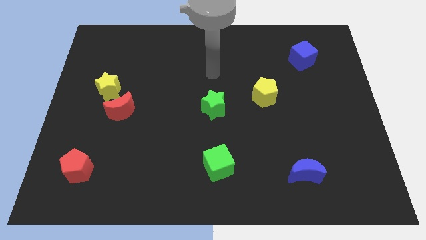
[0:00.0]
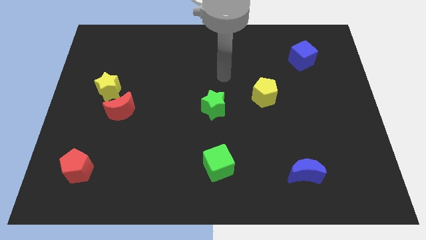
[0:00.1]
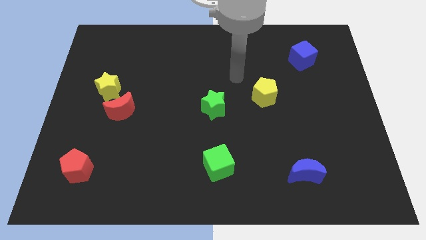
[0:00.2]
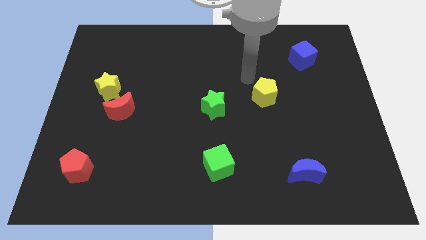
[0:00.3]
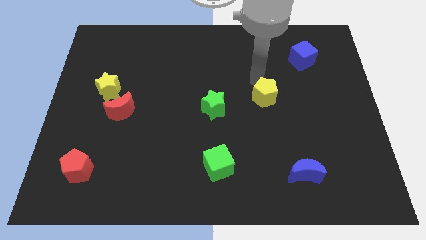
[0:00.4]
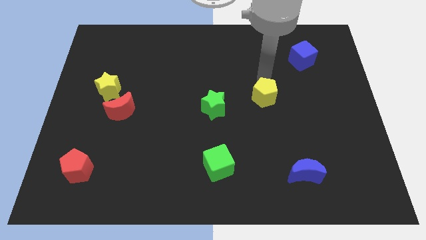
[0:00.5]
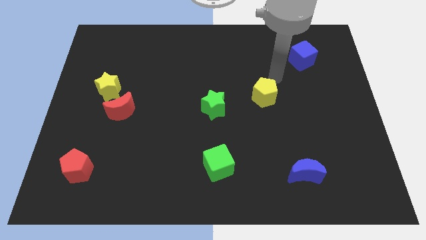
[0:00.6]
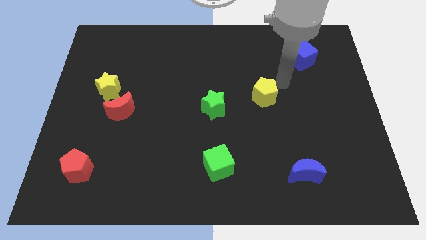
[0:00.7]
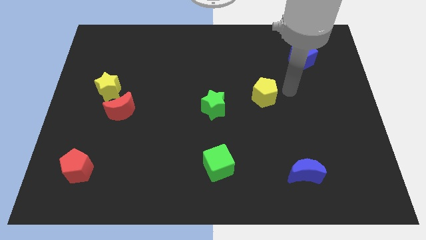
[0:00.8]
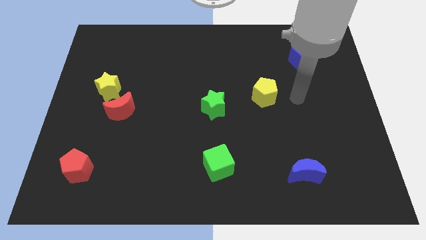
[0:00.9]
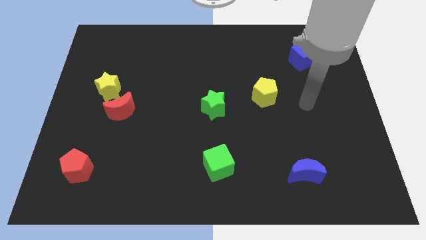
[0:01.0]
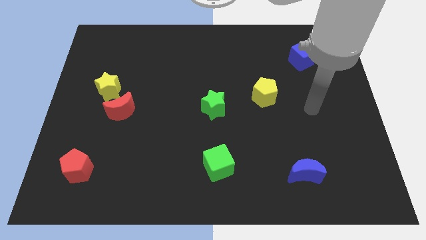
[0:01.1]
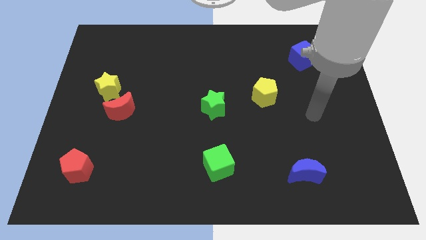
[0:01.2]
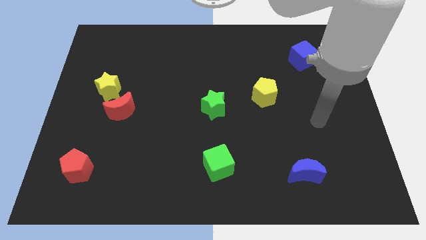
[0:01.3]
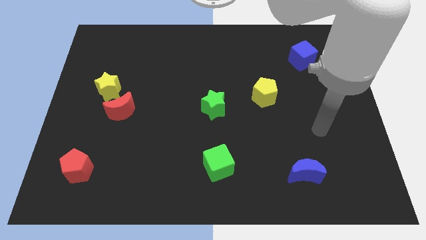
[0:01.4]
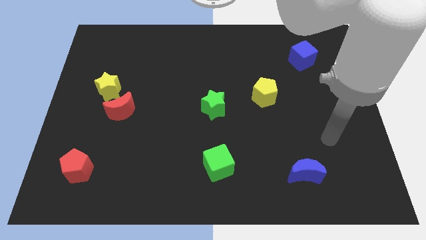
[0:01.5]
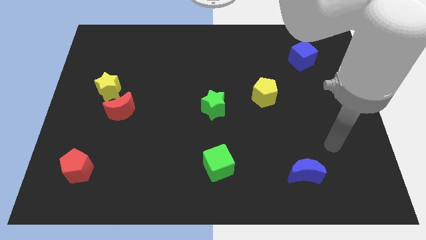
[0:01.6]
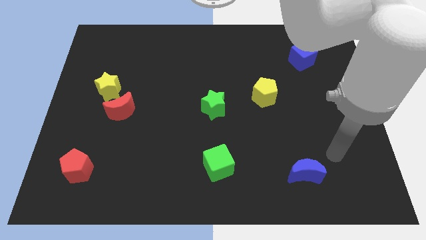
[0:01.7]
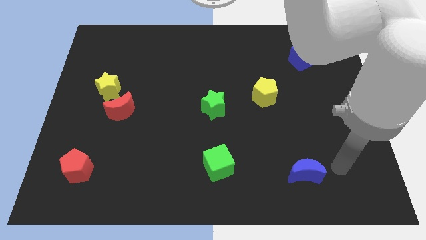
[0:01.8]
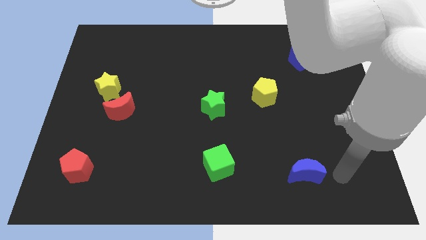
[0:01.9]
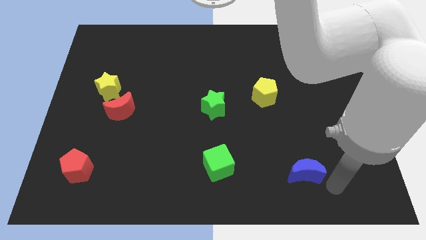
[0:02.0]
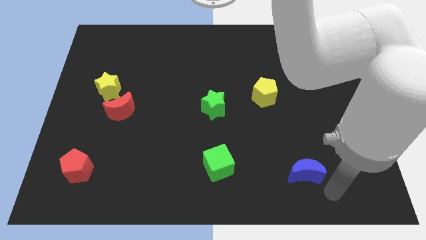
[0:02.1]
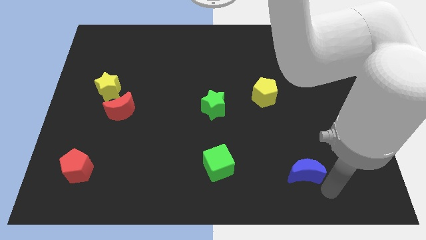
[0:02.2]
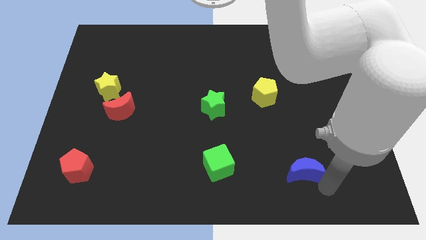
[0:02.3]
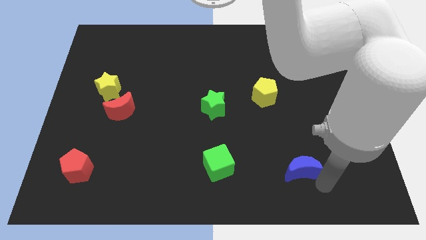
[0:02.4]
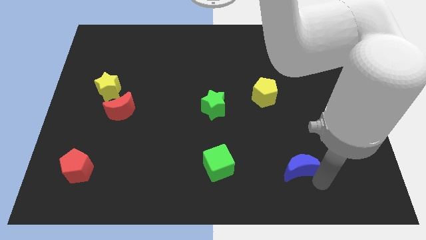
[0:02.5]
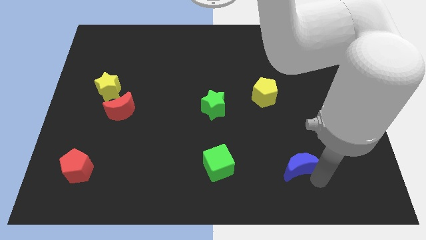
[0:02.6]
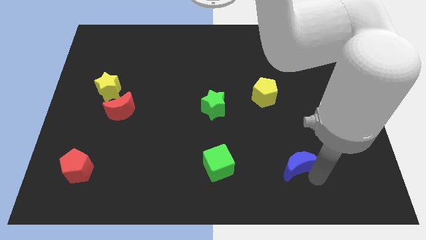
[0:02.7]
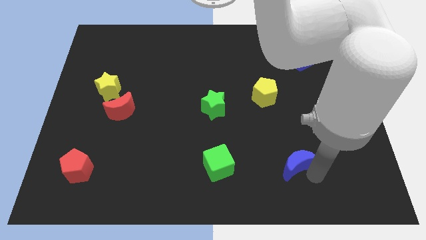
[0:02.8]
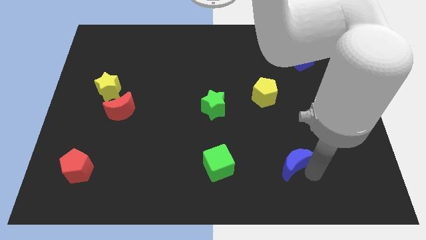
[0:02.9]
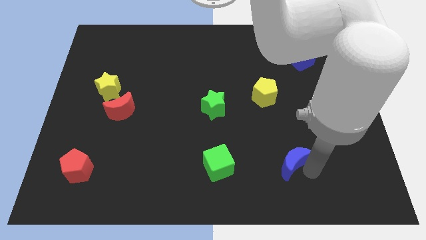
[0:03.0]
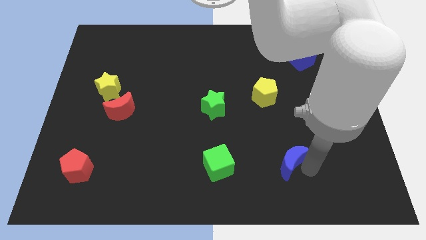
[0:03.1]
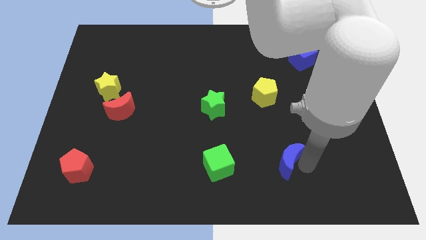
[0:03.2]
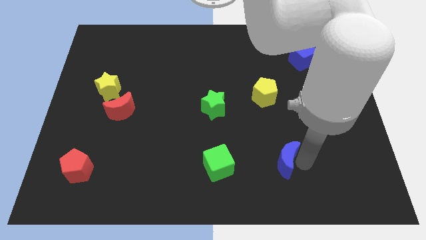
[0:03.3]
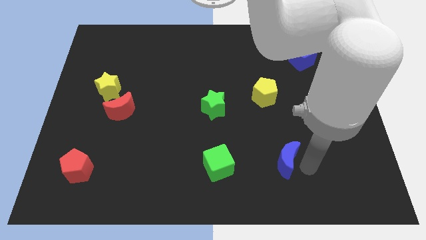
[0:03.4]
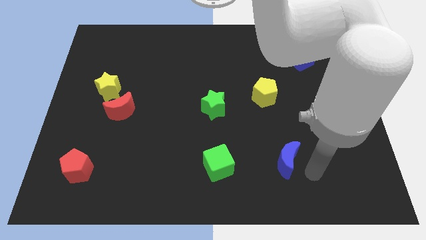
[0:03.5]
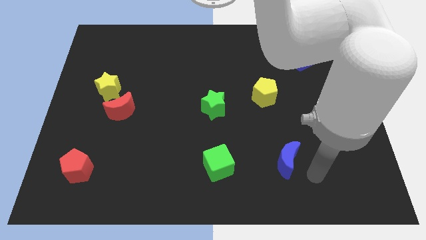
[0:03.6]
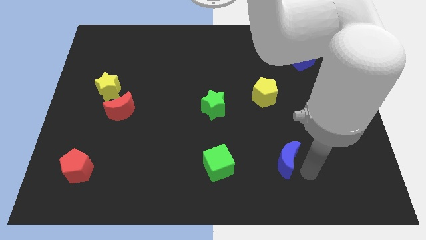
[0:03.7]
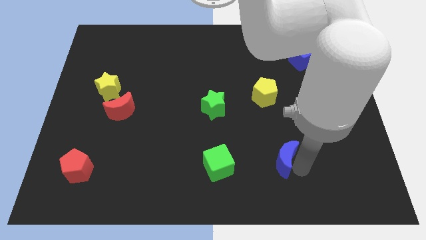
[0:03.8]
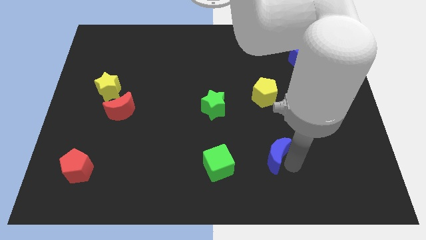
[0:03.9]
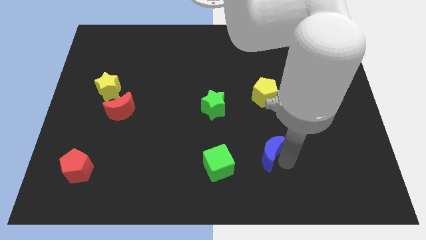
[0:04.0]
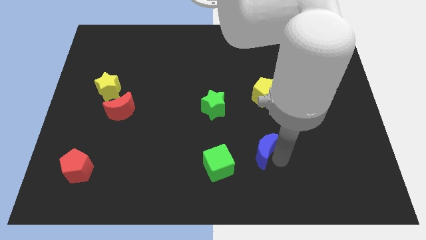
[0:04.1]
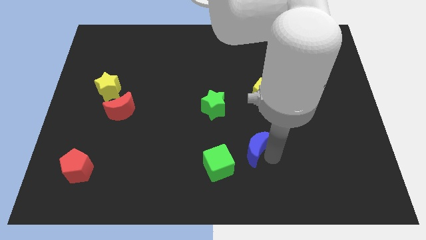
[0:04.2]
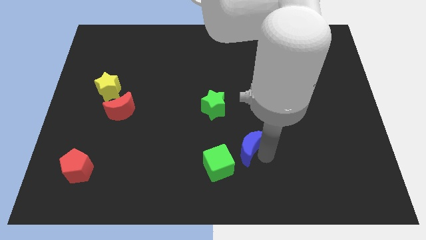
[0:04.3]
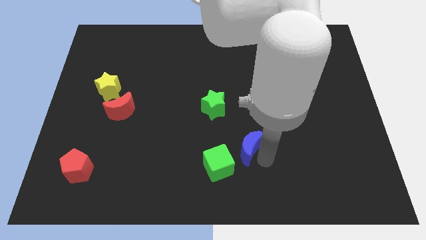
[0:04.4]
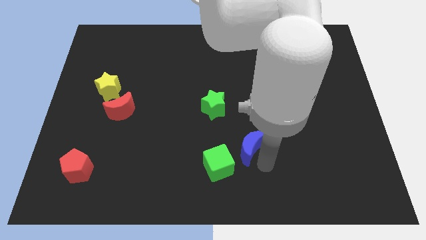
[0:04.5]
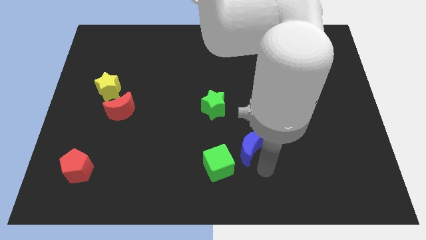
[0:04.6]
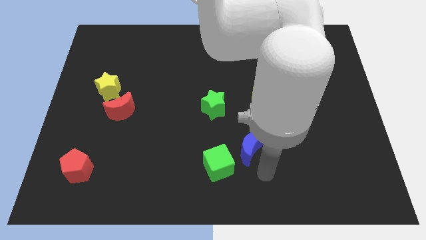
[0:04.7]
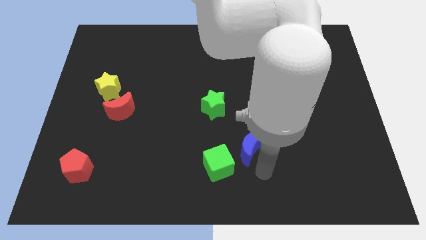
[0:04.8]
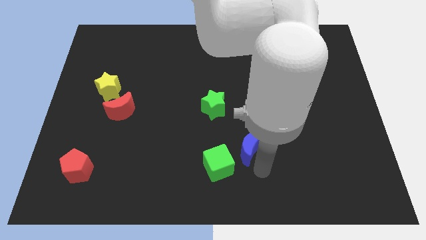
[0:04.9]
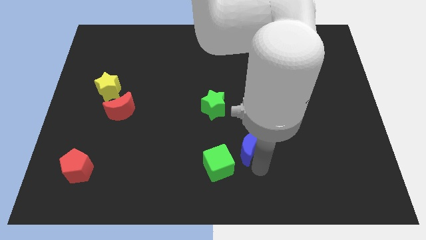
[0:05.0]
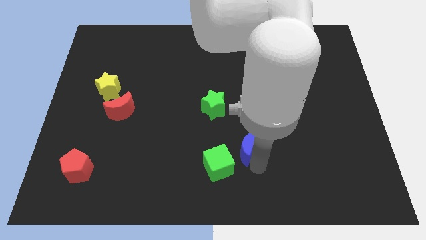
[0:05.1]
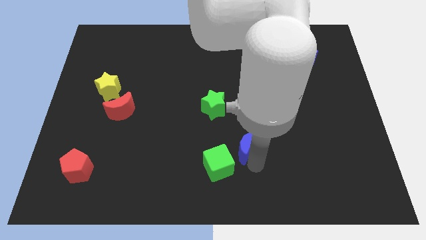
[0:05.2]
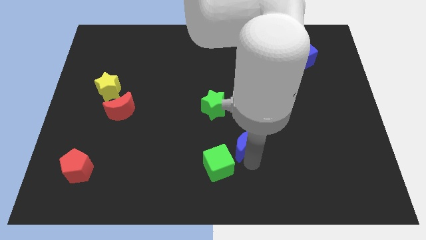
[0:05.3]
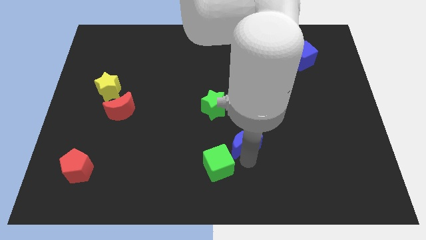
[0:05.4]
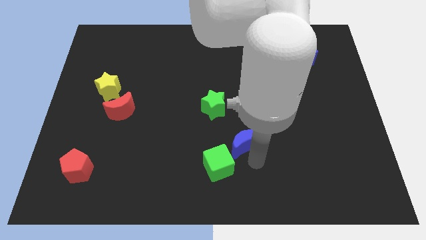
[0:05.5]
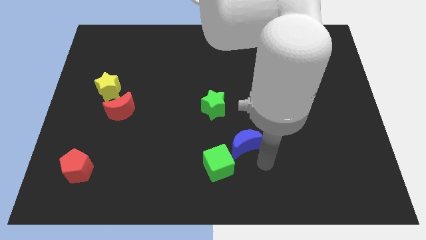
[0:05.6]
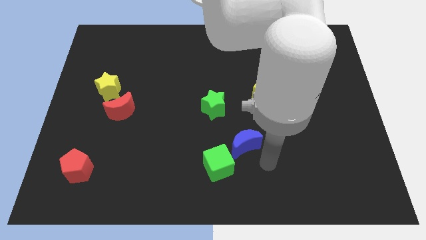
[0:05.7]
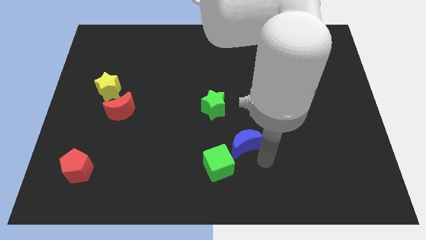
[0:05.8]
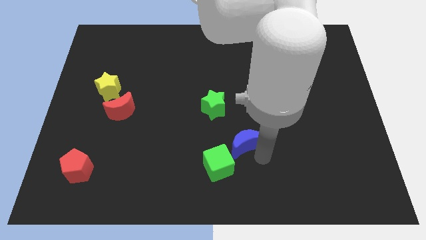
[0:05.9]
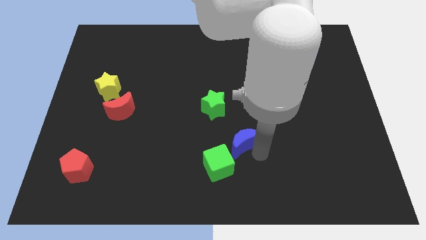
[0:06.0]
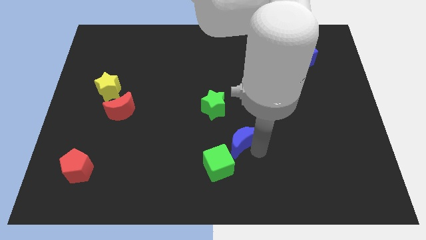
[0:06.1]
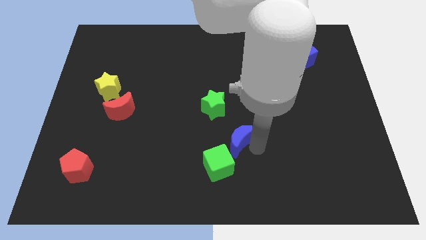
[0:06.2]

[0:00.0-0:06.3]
move the blue moon to the top side of the green cube
